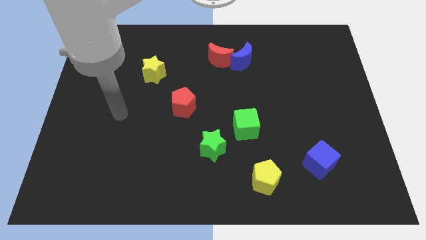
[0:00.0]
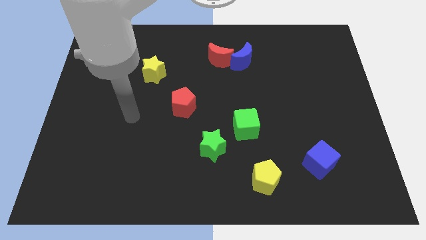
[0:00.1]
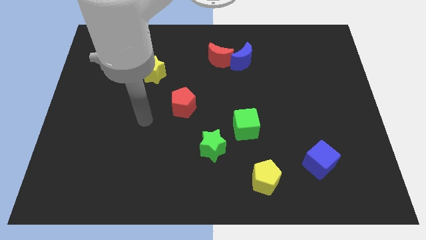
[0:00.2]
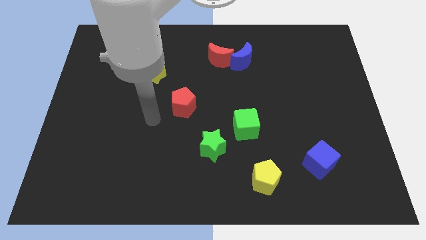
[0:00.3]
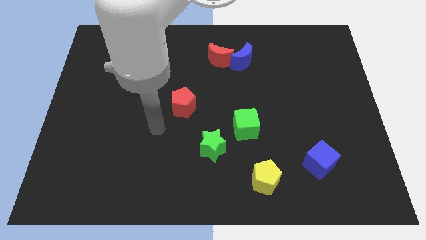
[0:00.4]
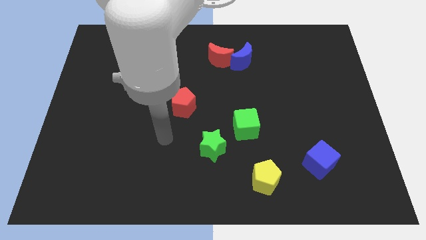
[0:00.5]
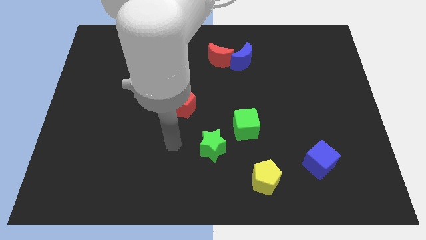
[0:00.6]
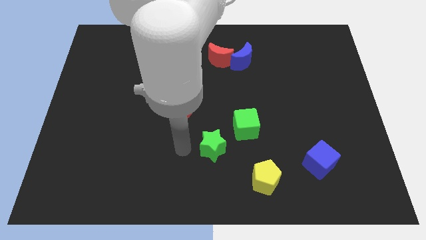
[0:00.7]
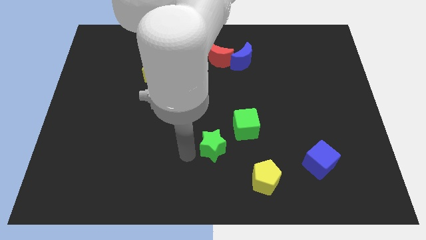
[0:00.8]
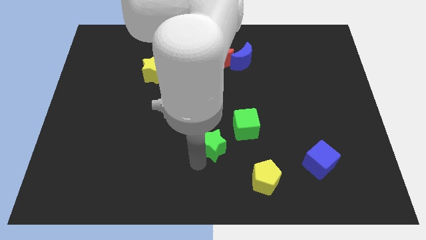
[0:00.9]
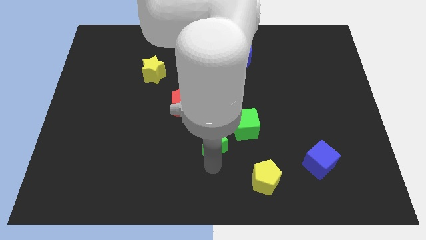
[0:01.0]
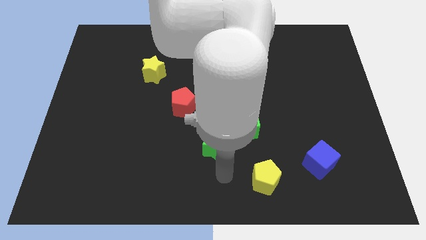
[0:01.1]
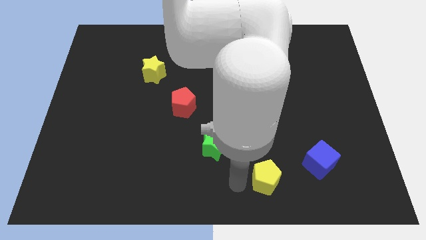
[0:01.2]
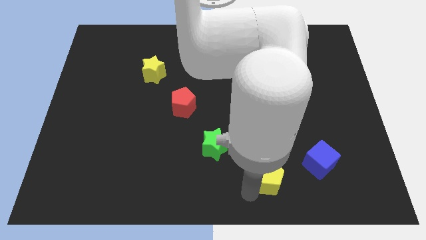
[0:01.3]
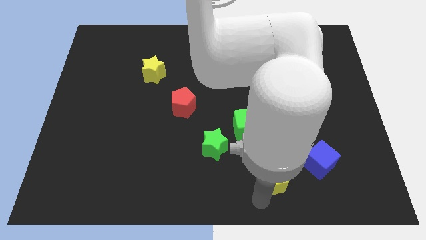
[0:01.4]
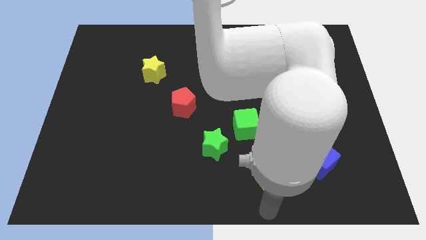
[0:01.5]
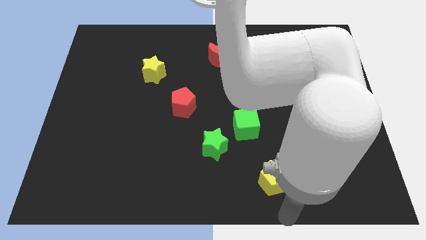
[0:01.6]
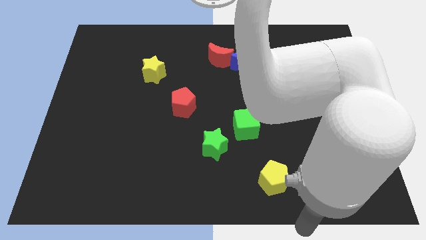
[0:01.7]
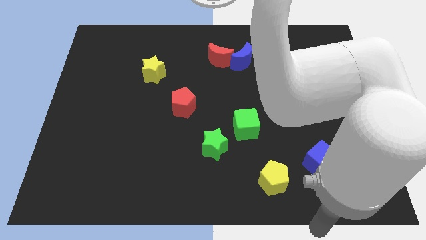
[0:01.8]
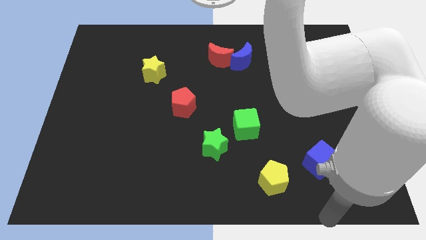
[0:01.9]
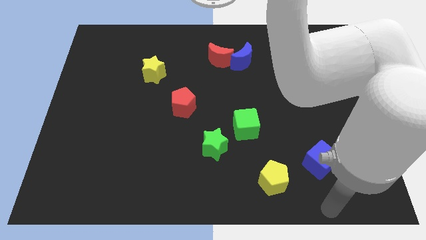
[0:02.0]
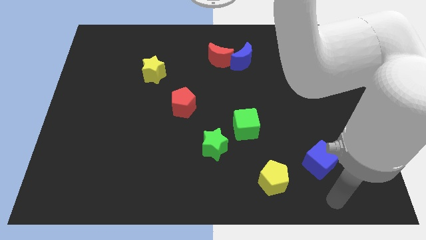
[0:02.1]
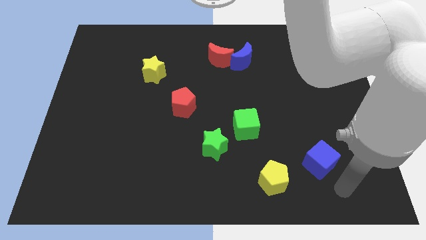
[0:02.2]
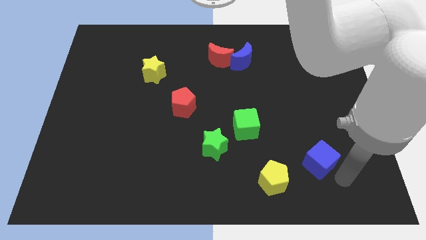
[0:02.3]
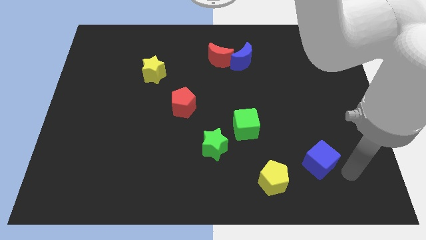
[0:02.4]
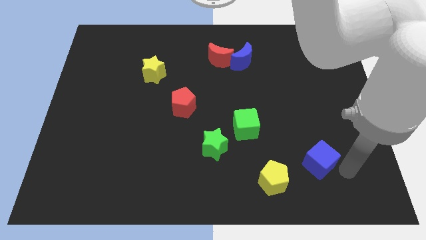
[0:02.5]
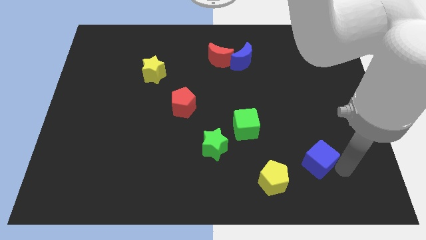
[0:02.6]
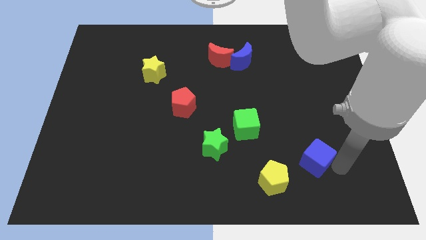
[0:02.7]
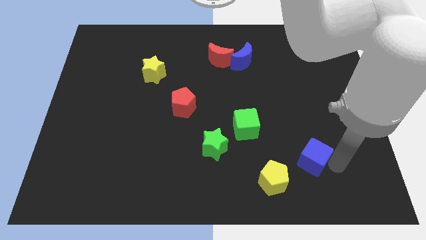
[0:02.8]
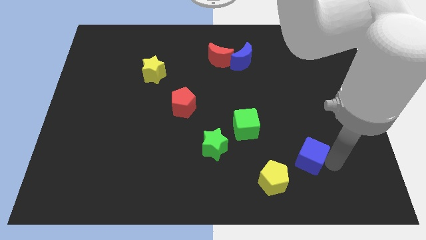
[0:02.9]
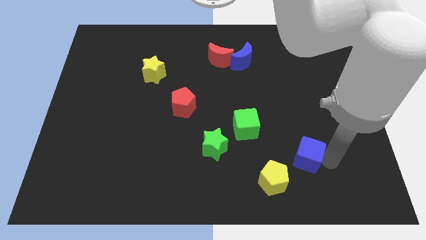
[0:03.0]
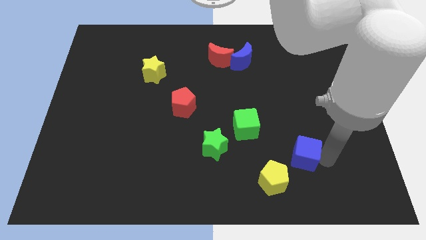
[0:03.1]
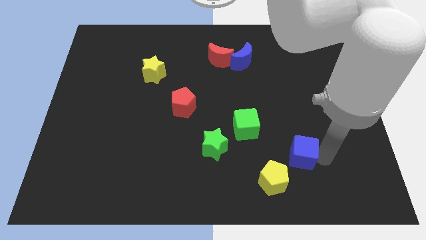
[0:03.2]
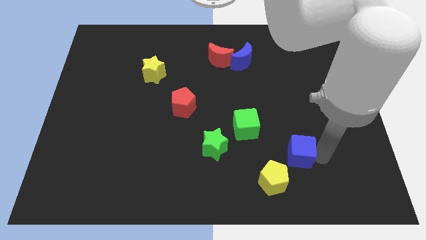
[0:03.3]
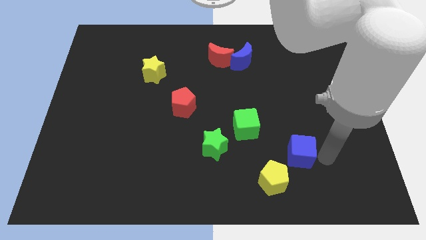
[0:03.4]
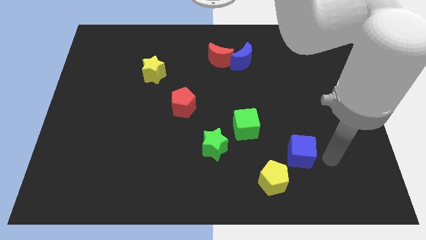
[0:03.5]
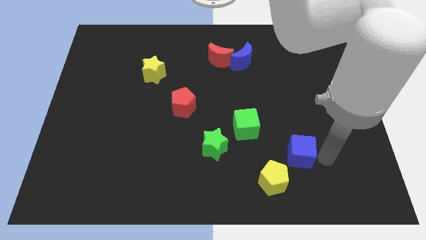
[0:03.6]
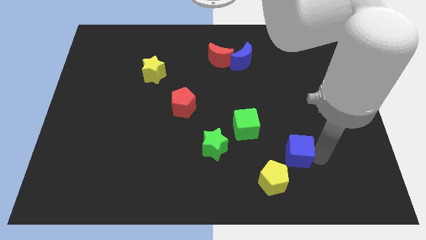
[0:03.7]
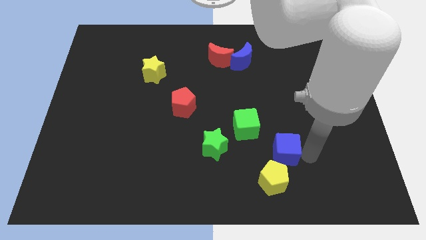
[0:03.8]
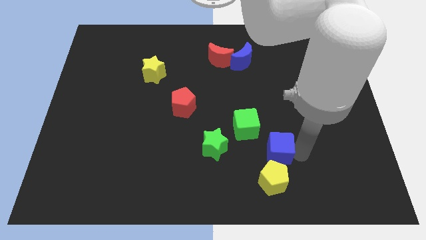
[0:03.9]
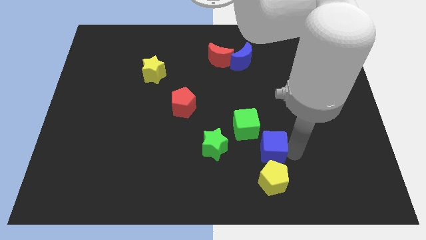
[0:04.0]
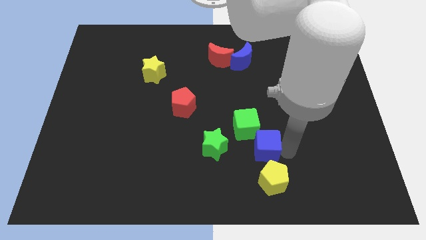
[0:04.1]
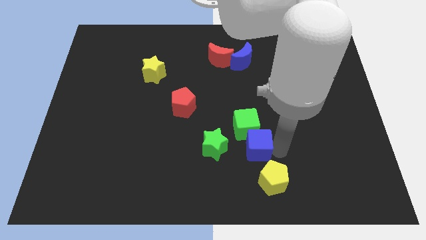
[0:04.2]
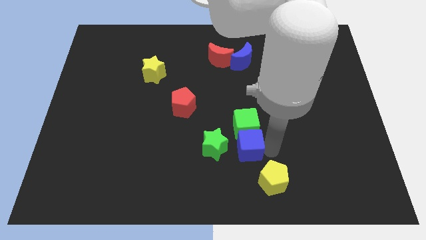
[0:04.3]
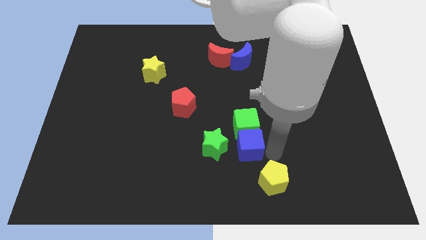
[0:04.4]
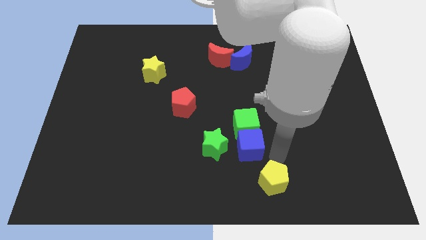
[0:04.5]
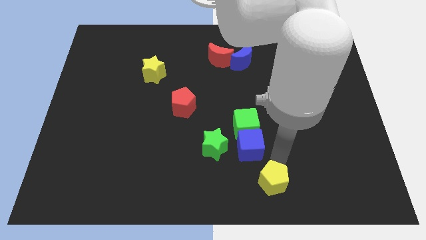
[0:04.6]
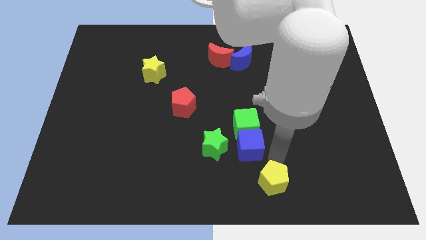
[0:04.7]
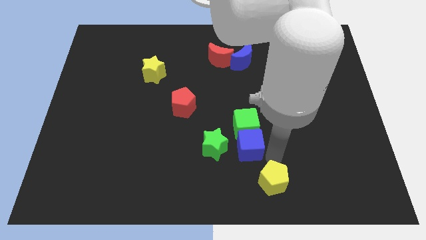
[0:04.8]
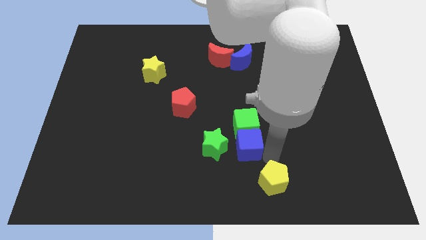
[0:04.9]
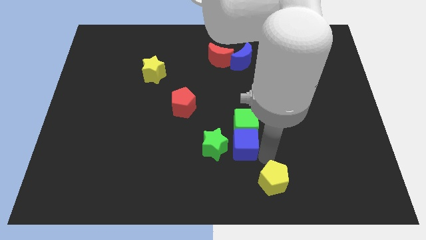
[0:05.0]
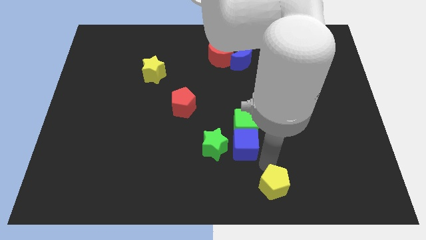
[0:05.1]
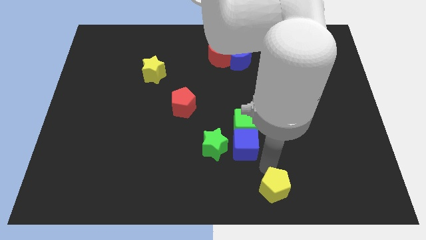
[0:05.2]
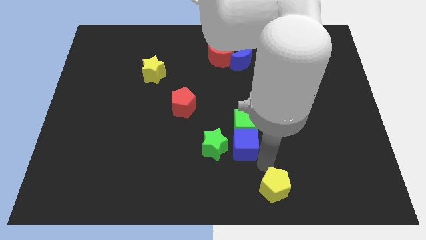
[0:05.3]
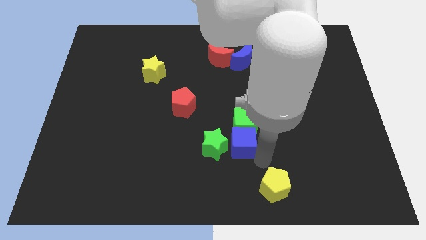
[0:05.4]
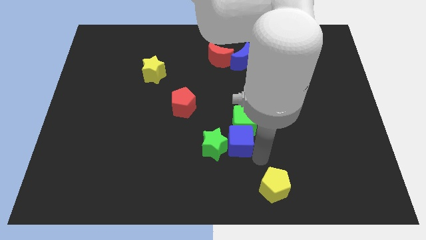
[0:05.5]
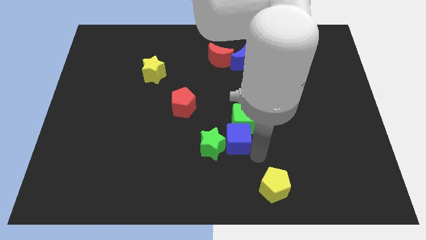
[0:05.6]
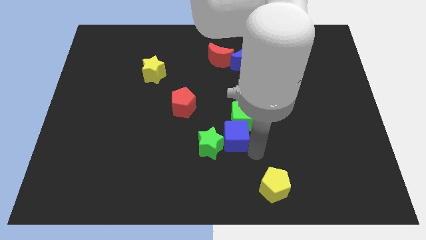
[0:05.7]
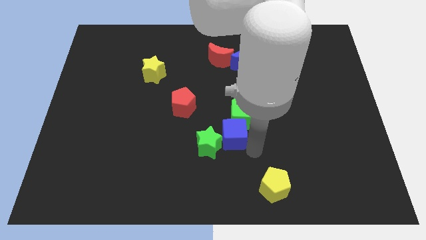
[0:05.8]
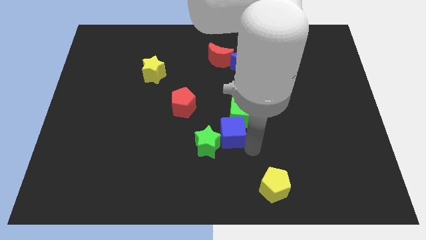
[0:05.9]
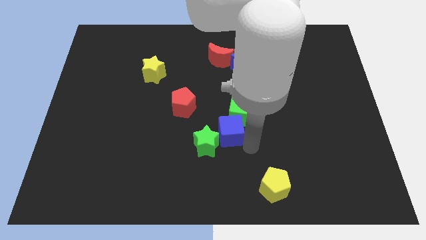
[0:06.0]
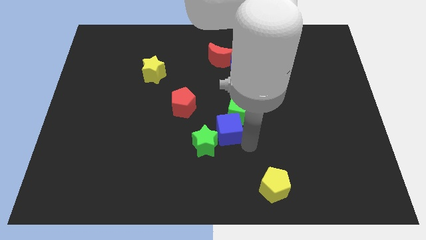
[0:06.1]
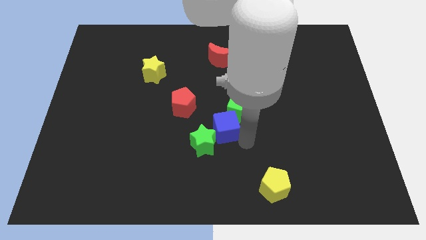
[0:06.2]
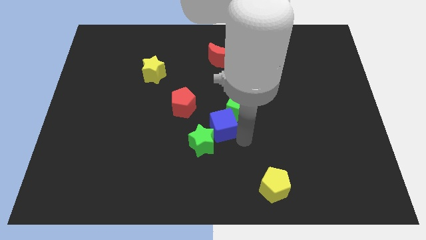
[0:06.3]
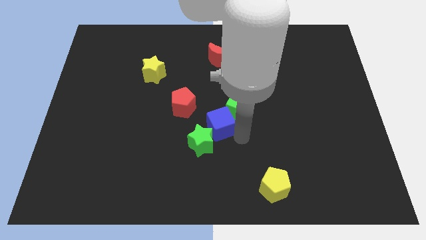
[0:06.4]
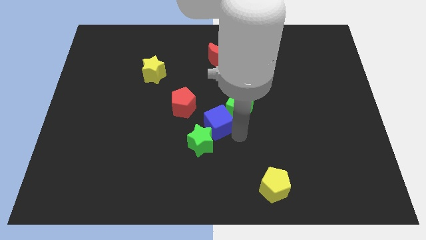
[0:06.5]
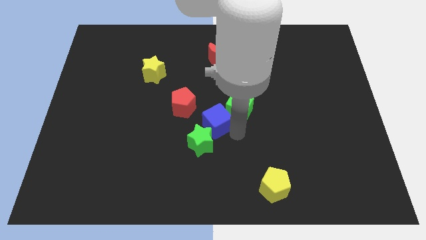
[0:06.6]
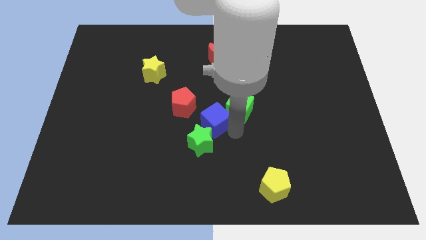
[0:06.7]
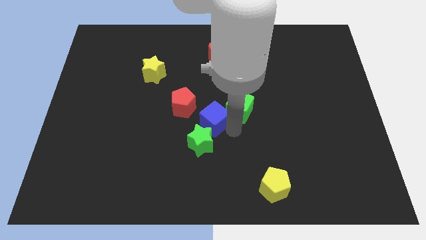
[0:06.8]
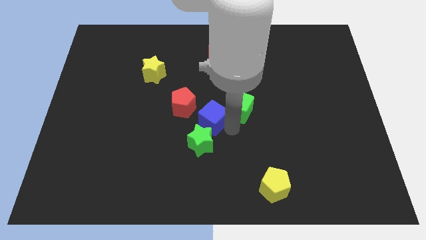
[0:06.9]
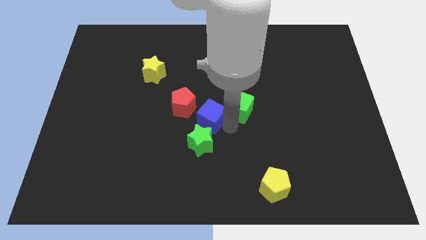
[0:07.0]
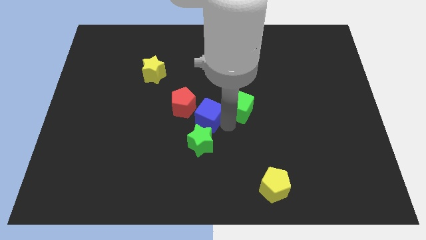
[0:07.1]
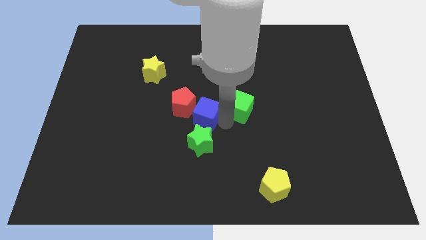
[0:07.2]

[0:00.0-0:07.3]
push the blue cube towards the red pentagon

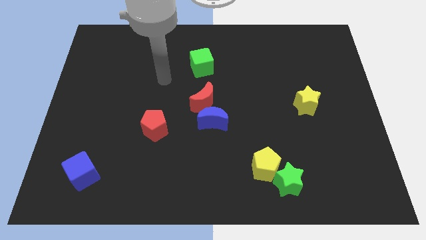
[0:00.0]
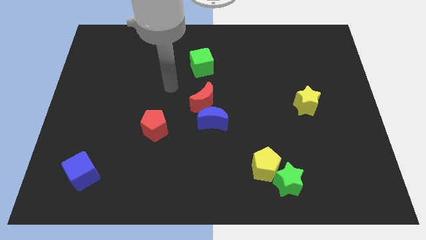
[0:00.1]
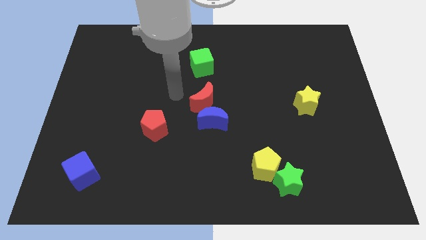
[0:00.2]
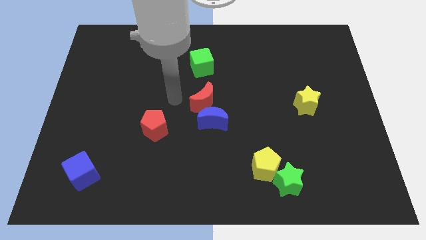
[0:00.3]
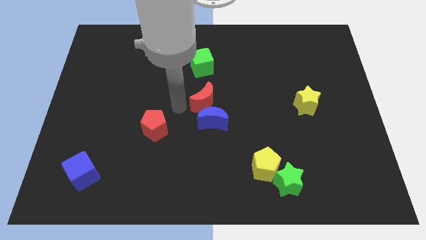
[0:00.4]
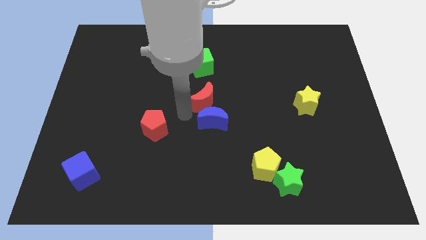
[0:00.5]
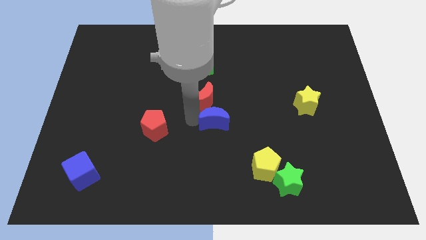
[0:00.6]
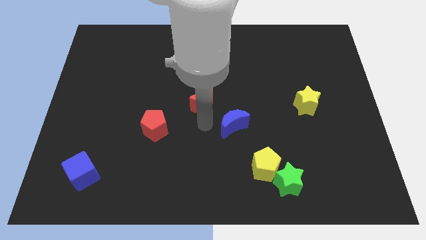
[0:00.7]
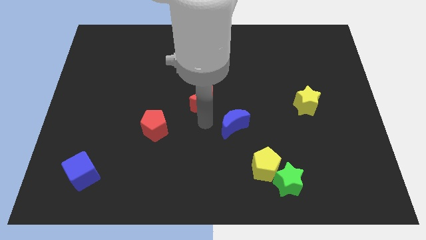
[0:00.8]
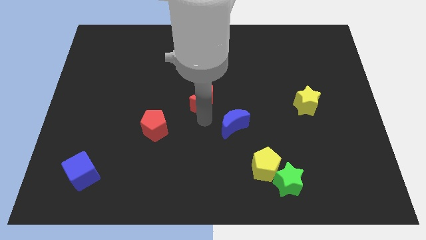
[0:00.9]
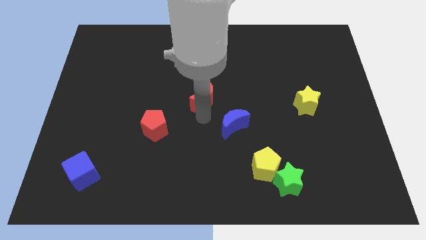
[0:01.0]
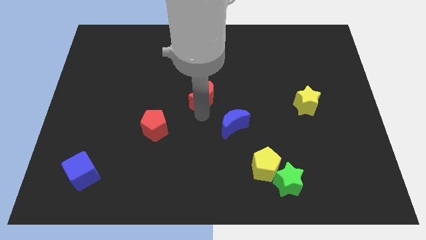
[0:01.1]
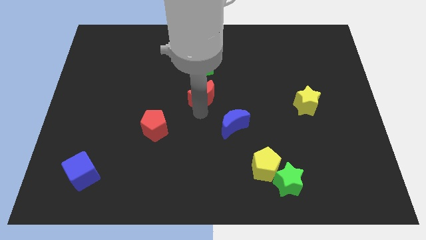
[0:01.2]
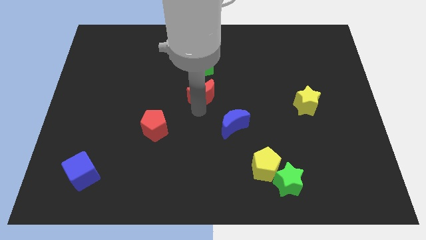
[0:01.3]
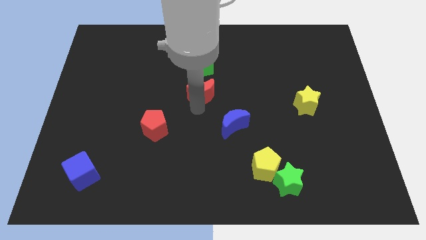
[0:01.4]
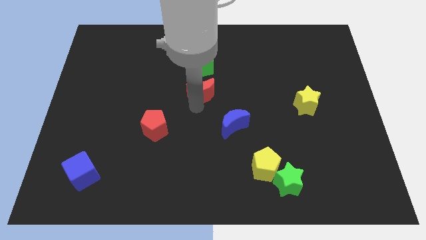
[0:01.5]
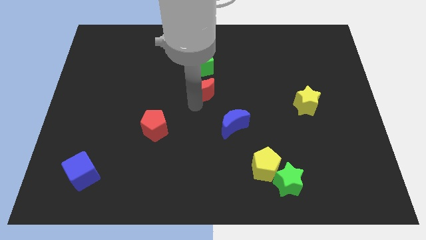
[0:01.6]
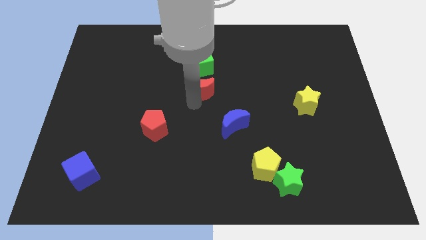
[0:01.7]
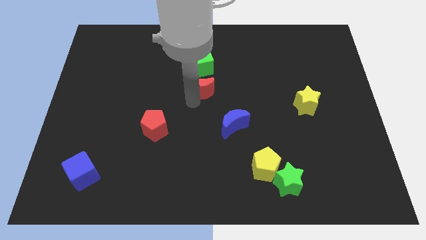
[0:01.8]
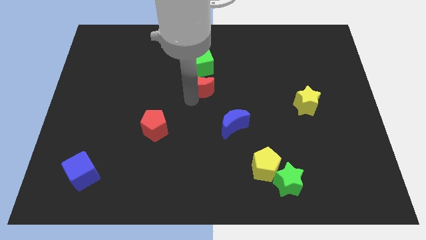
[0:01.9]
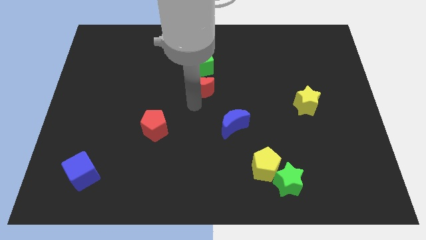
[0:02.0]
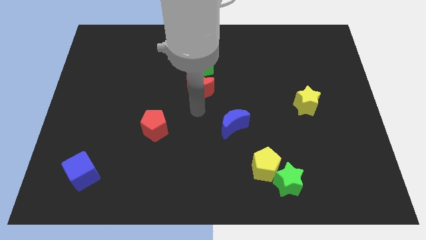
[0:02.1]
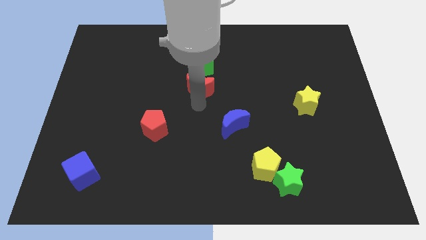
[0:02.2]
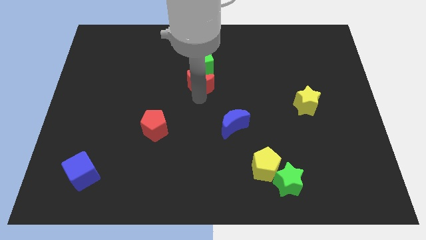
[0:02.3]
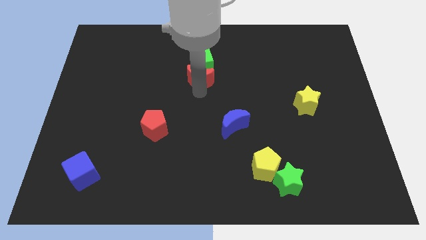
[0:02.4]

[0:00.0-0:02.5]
slide the red moon to the green cube
